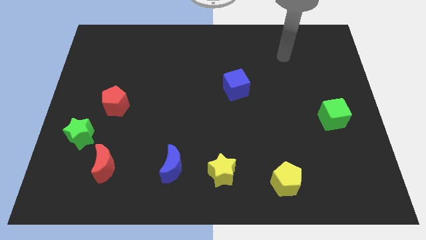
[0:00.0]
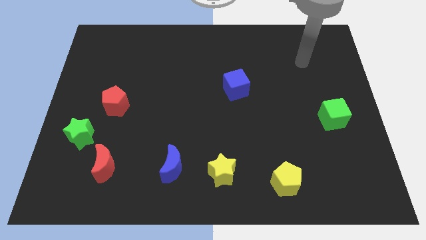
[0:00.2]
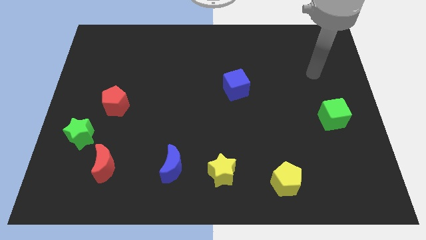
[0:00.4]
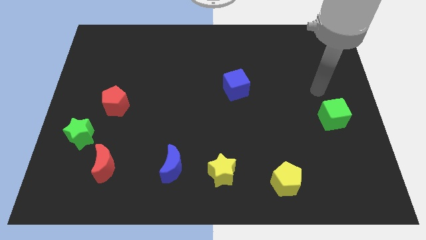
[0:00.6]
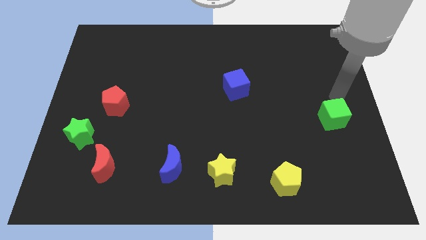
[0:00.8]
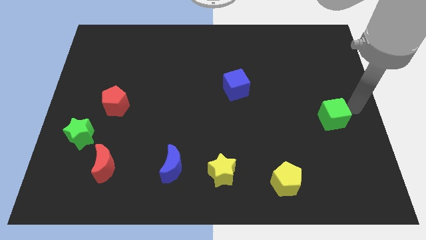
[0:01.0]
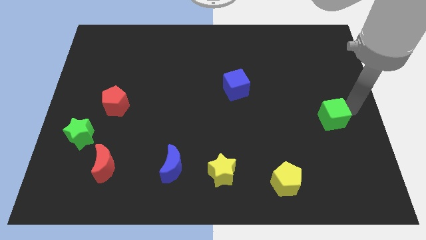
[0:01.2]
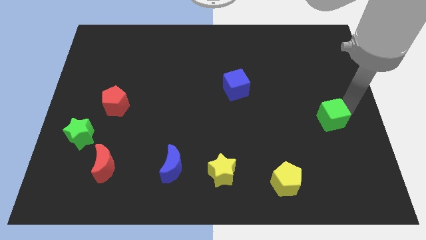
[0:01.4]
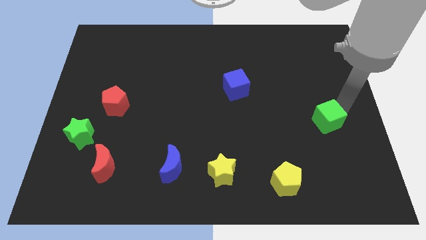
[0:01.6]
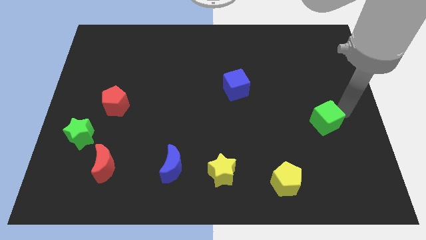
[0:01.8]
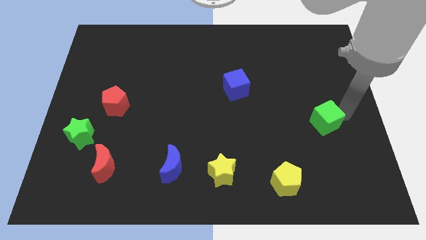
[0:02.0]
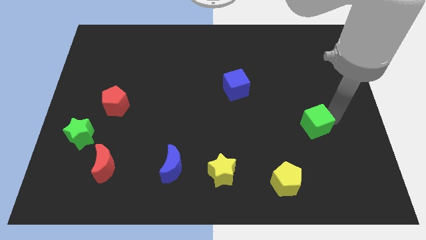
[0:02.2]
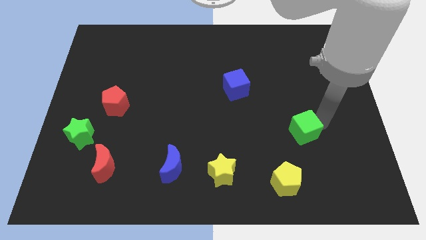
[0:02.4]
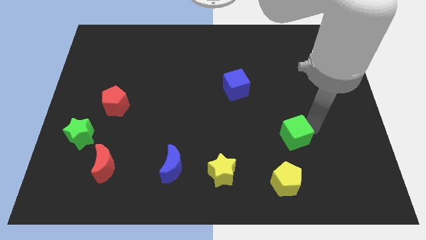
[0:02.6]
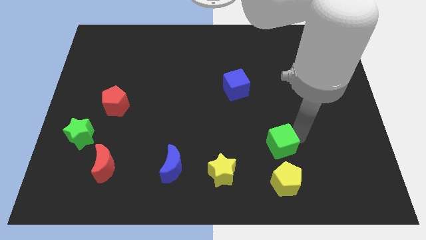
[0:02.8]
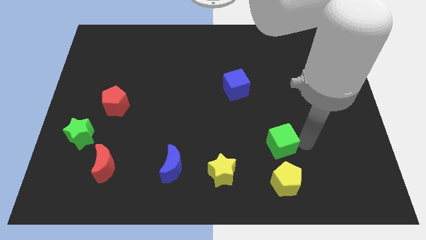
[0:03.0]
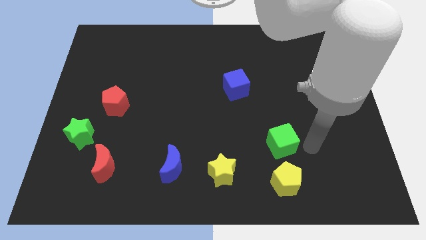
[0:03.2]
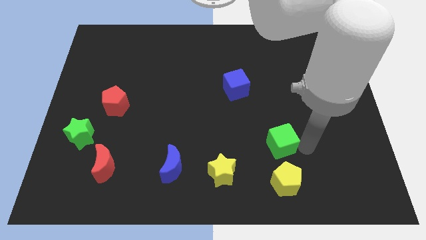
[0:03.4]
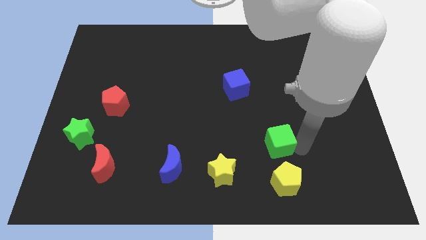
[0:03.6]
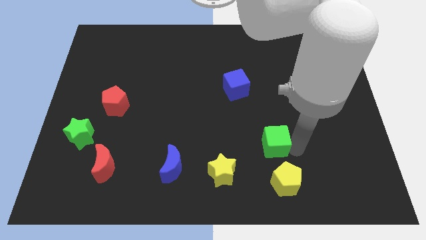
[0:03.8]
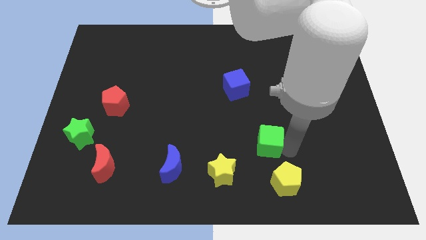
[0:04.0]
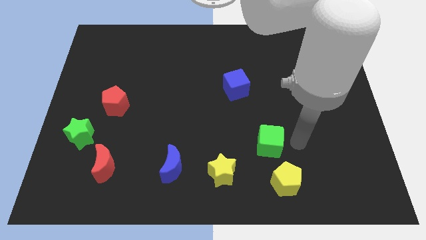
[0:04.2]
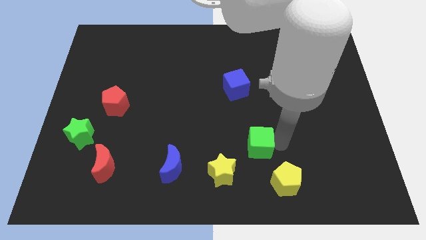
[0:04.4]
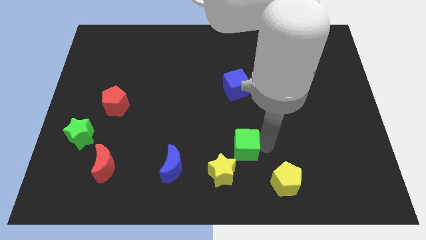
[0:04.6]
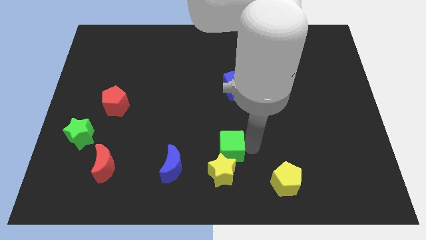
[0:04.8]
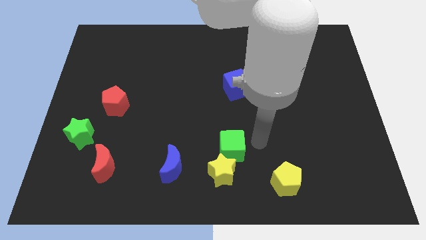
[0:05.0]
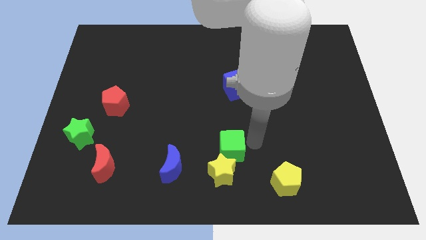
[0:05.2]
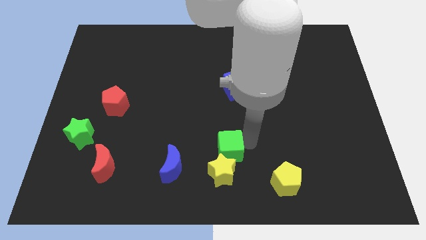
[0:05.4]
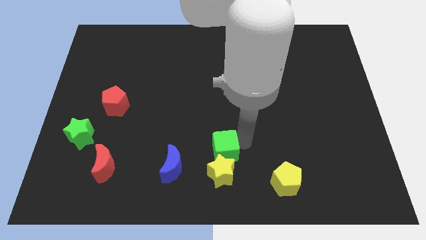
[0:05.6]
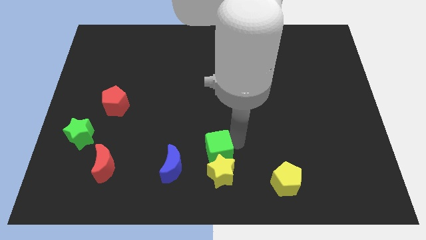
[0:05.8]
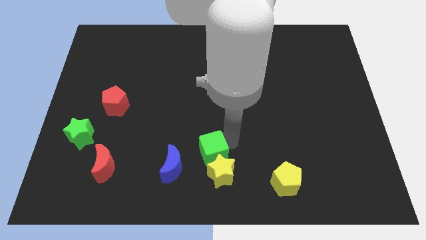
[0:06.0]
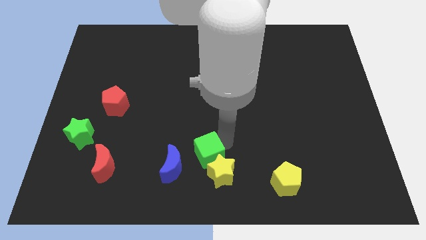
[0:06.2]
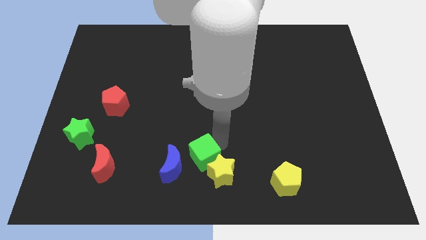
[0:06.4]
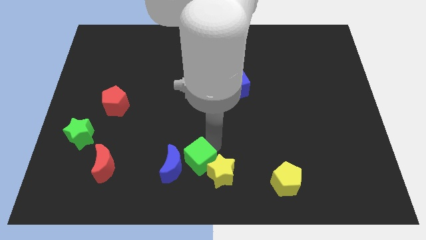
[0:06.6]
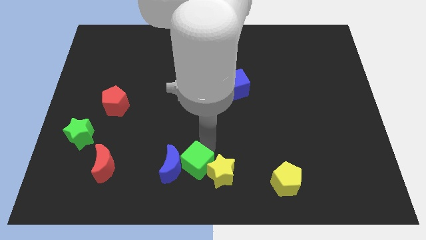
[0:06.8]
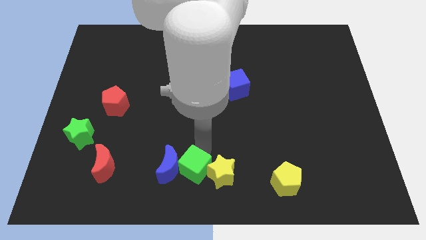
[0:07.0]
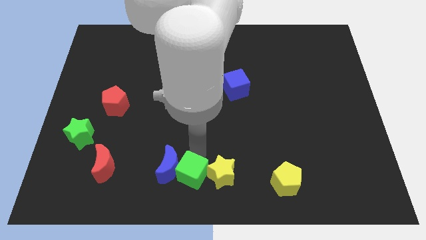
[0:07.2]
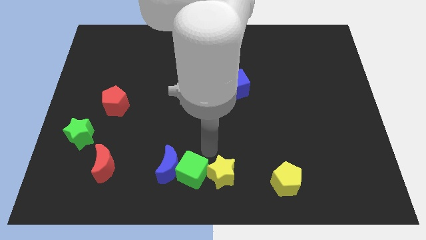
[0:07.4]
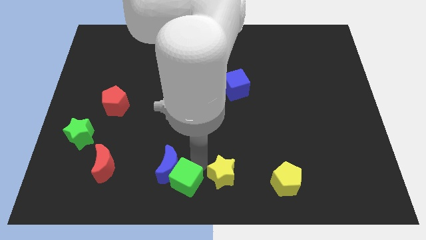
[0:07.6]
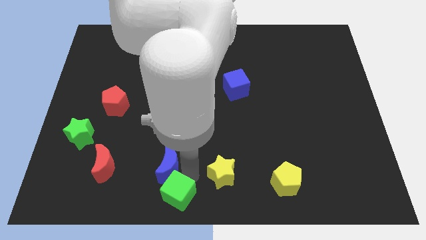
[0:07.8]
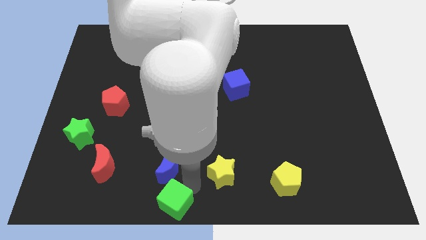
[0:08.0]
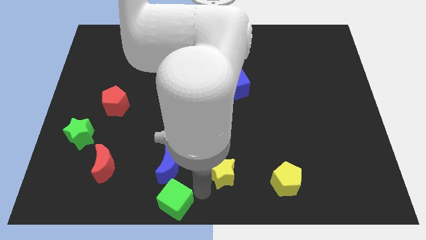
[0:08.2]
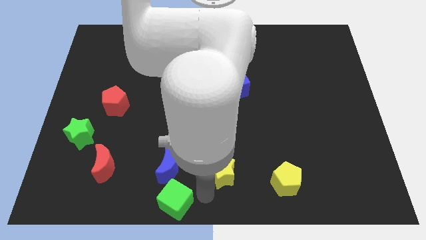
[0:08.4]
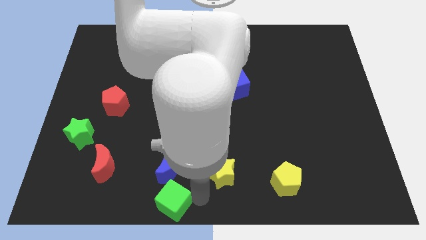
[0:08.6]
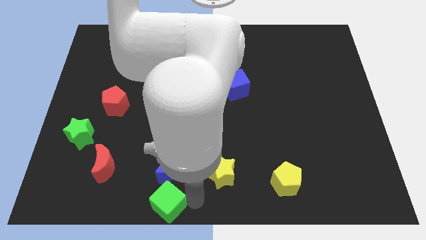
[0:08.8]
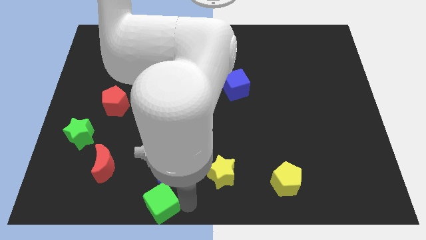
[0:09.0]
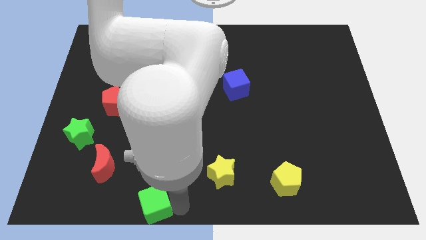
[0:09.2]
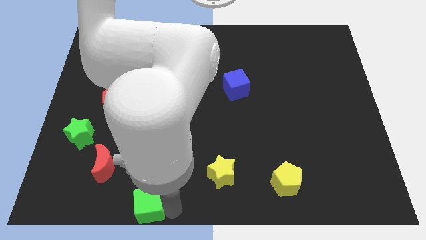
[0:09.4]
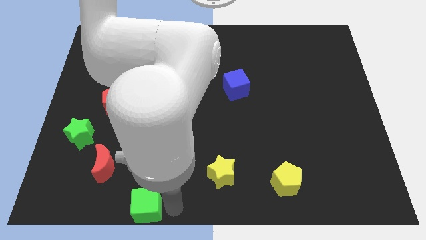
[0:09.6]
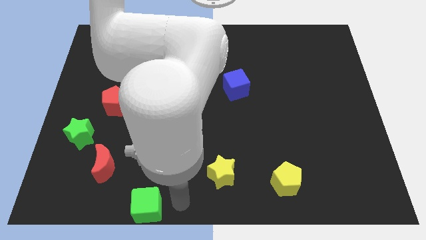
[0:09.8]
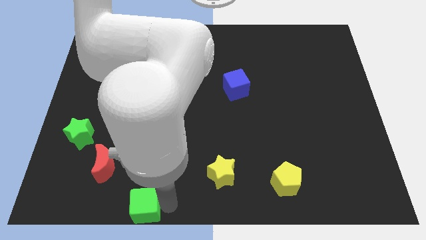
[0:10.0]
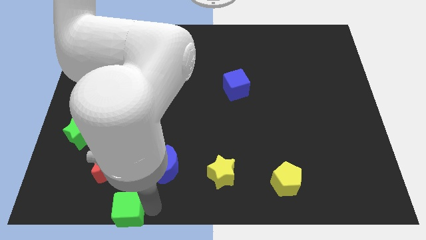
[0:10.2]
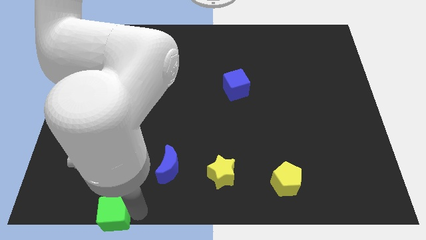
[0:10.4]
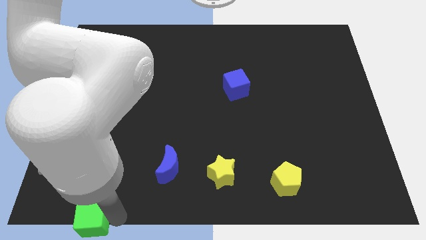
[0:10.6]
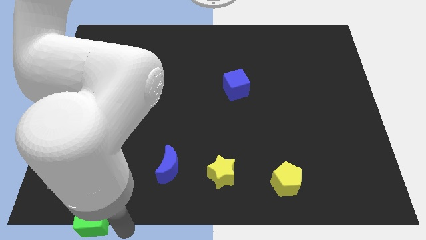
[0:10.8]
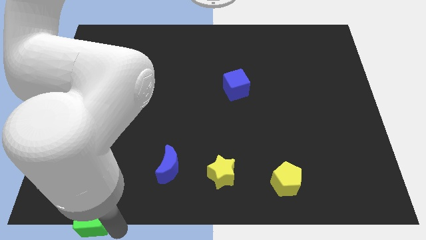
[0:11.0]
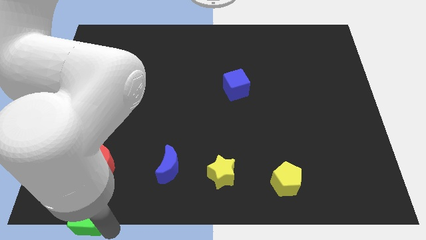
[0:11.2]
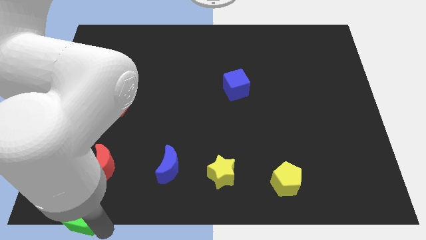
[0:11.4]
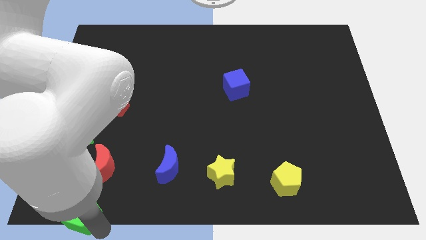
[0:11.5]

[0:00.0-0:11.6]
push the green cube to the bottom left of the board

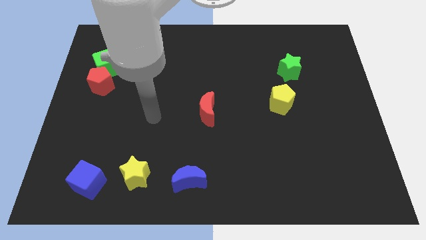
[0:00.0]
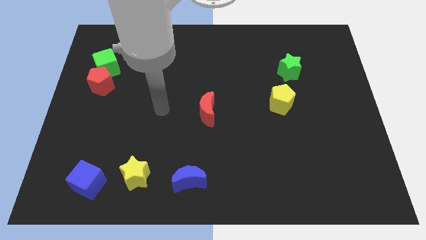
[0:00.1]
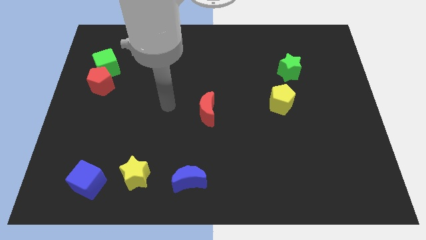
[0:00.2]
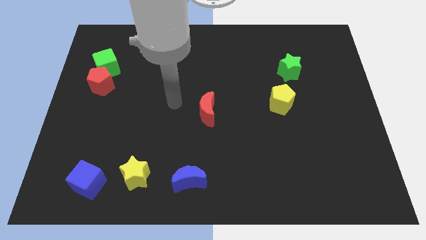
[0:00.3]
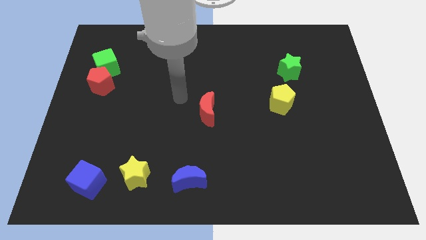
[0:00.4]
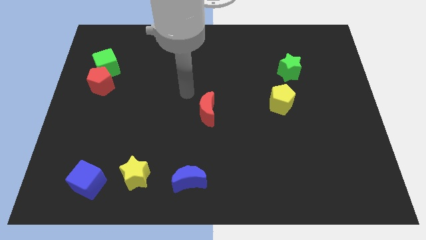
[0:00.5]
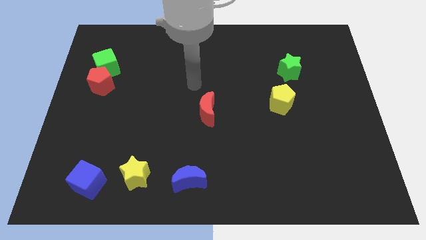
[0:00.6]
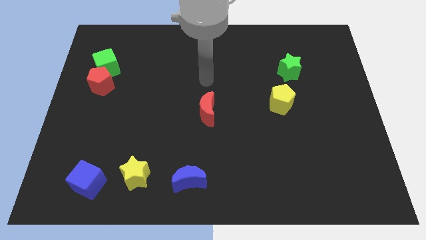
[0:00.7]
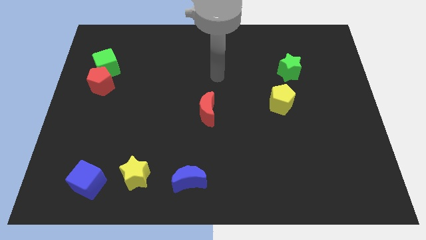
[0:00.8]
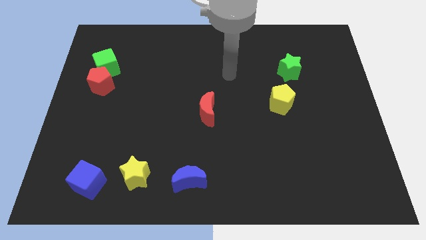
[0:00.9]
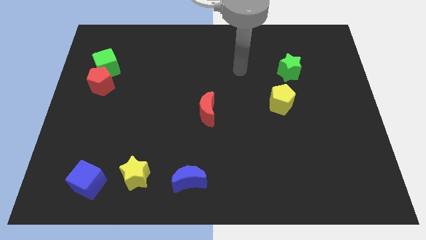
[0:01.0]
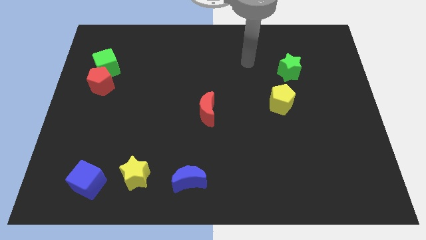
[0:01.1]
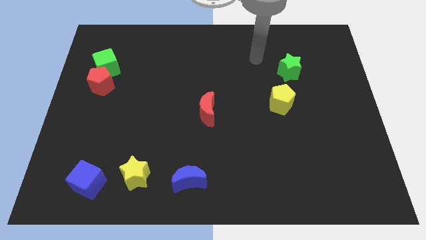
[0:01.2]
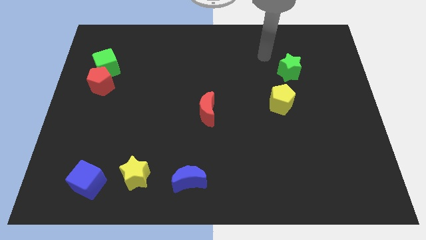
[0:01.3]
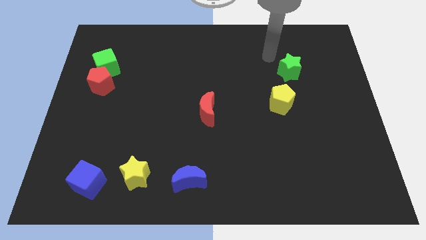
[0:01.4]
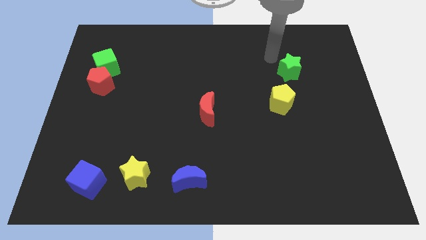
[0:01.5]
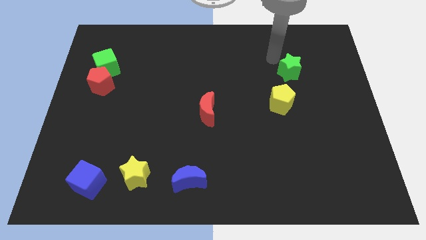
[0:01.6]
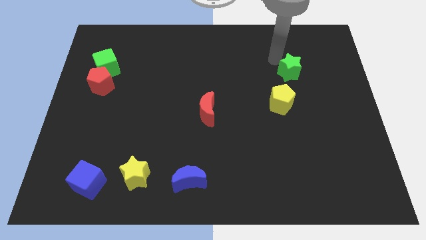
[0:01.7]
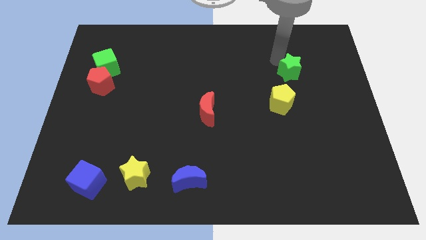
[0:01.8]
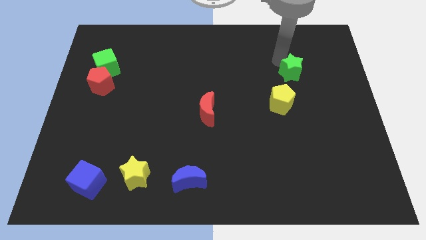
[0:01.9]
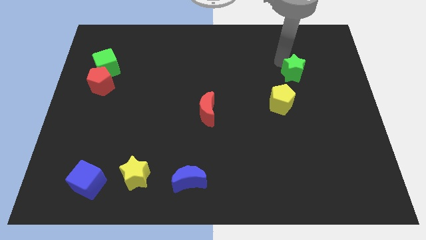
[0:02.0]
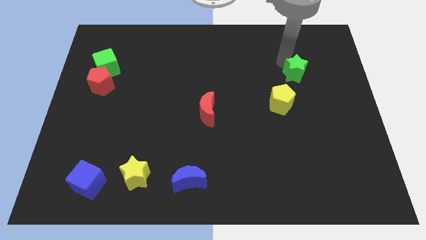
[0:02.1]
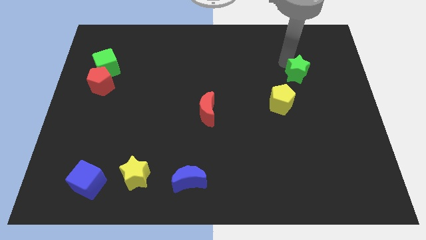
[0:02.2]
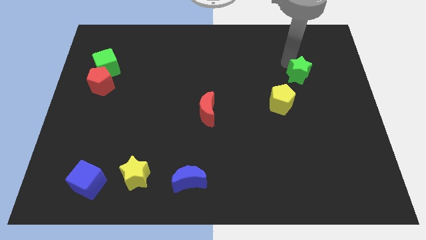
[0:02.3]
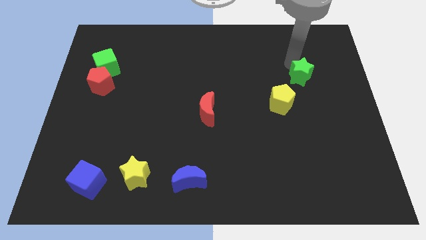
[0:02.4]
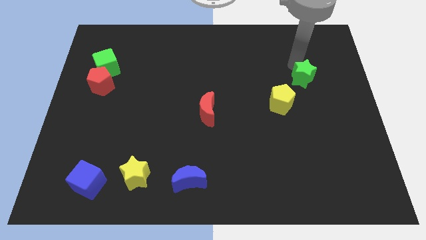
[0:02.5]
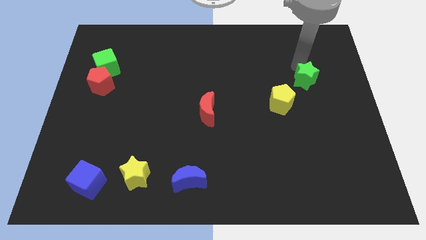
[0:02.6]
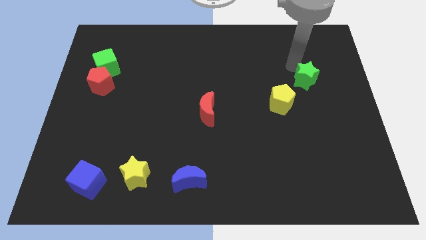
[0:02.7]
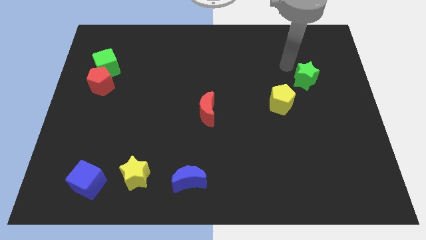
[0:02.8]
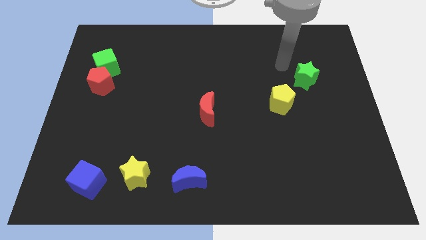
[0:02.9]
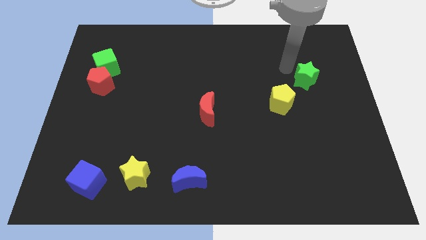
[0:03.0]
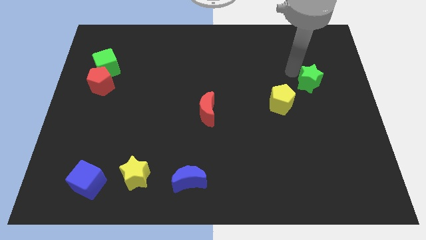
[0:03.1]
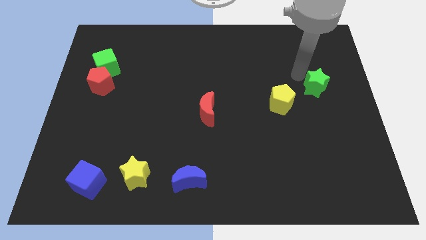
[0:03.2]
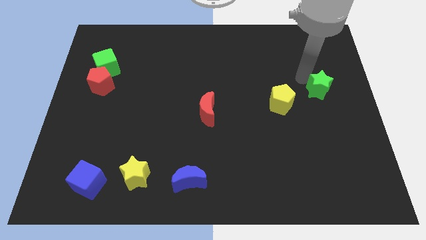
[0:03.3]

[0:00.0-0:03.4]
move the green star to the right side of the board
